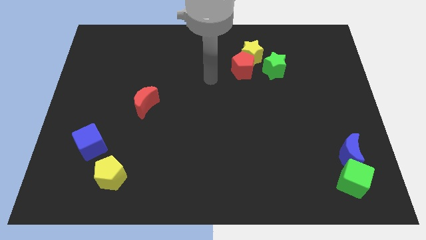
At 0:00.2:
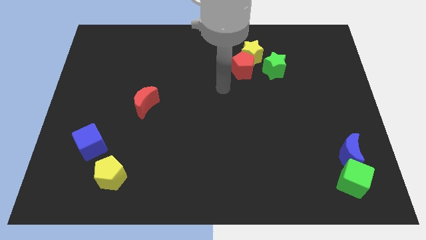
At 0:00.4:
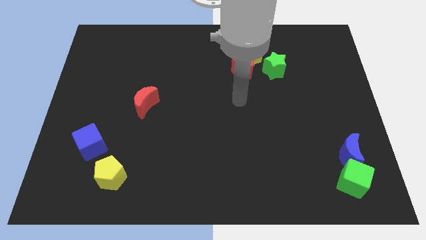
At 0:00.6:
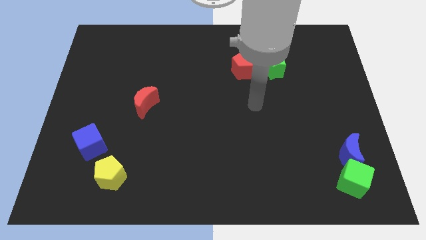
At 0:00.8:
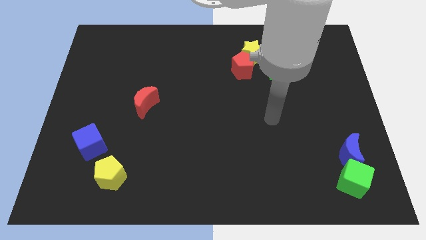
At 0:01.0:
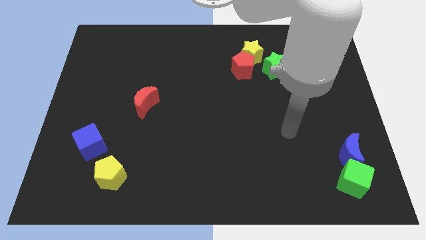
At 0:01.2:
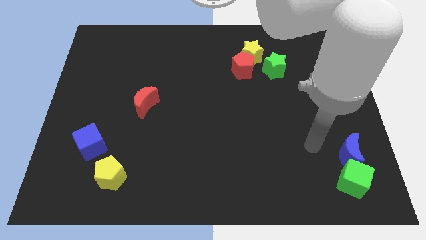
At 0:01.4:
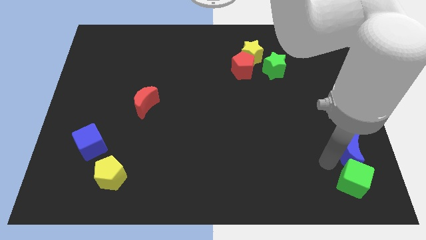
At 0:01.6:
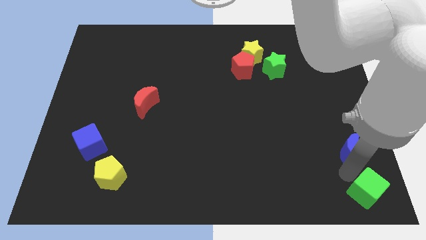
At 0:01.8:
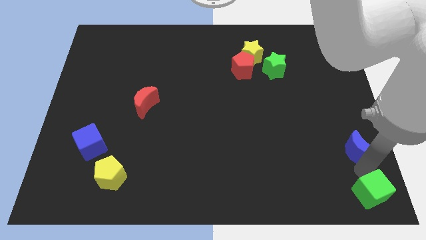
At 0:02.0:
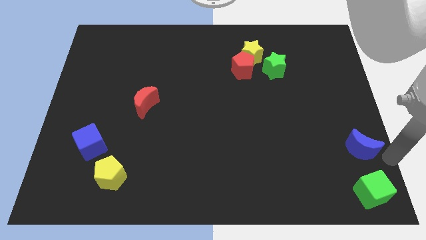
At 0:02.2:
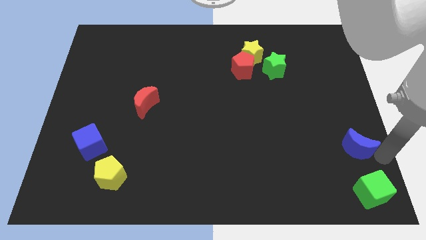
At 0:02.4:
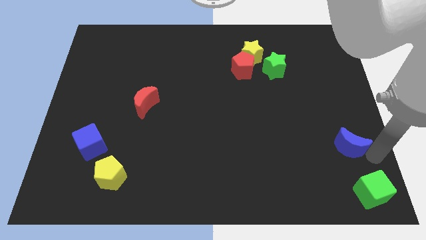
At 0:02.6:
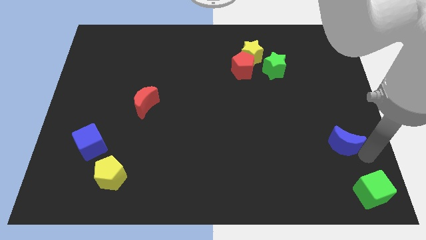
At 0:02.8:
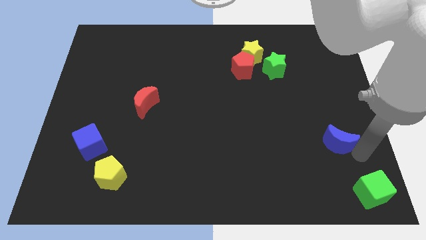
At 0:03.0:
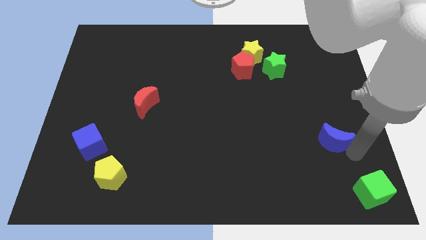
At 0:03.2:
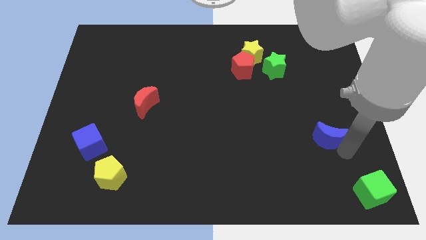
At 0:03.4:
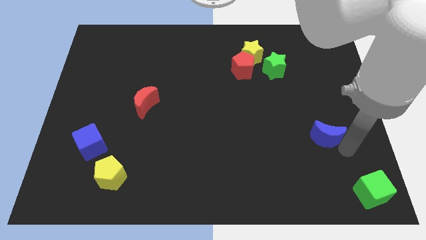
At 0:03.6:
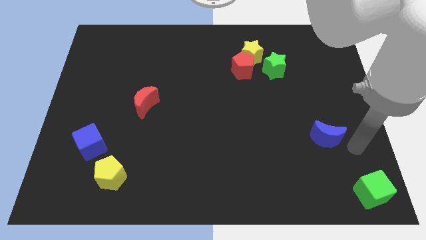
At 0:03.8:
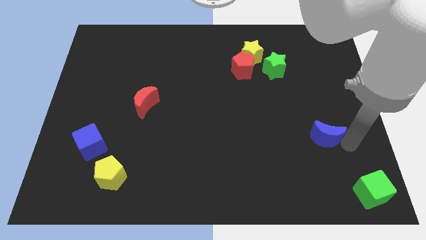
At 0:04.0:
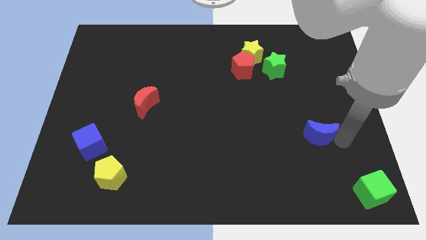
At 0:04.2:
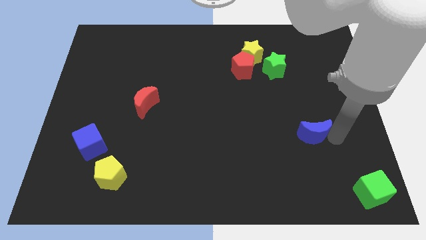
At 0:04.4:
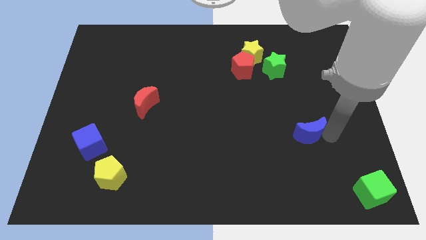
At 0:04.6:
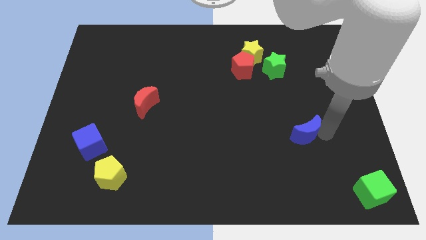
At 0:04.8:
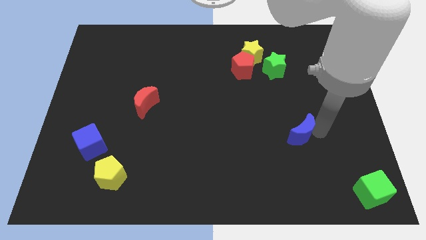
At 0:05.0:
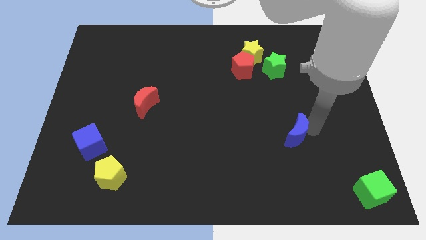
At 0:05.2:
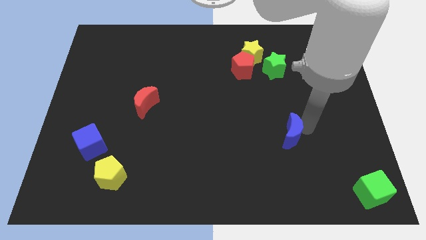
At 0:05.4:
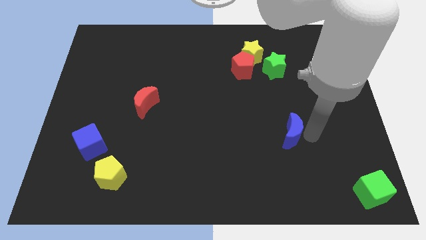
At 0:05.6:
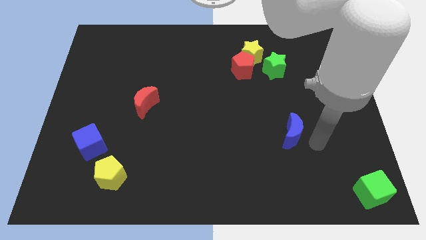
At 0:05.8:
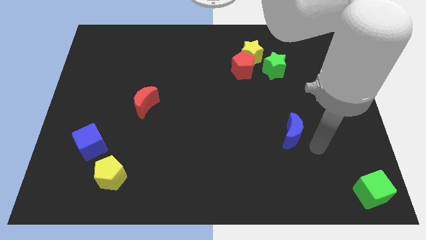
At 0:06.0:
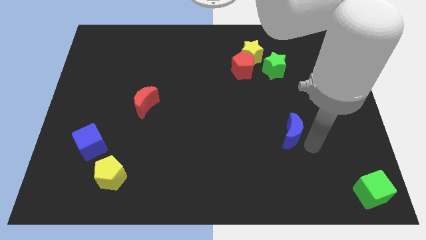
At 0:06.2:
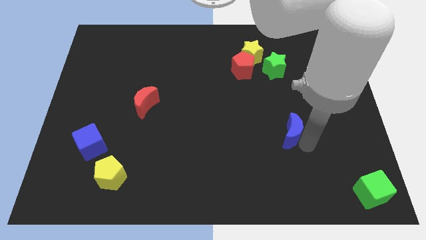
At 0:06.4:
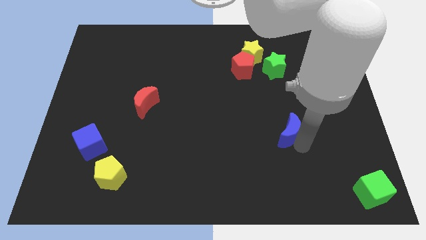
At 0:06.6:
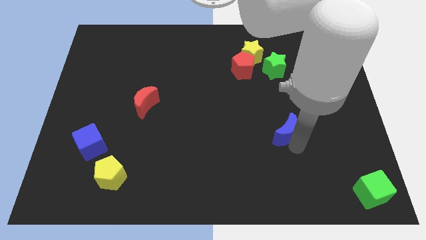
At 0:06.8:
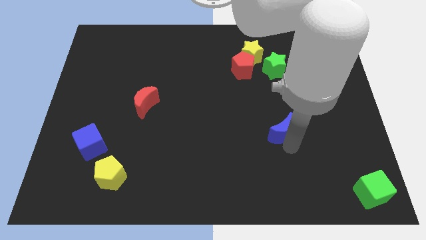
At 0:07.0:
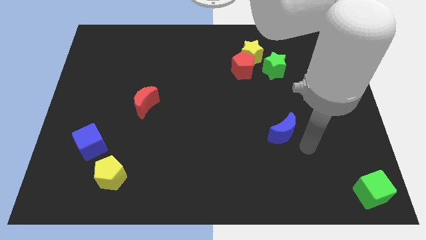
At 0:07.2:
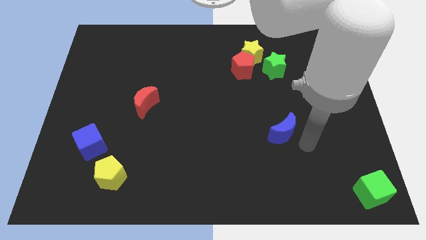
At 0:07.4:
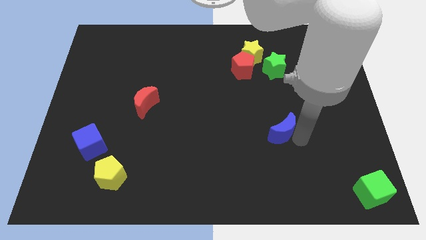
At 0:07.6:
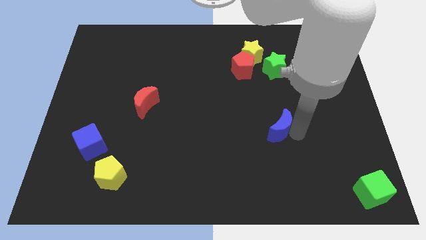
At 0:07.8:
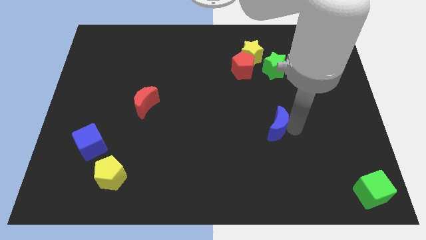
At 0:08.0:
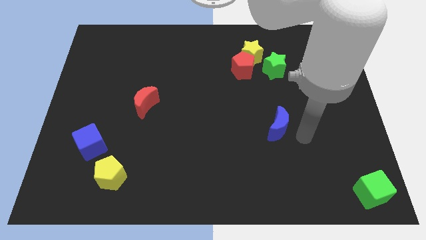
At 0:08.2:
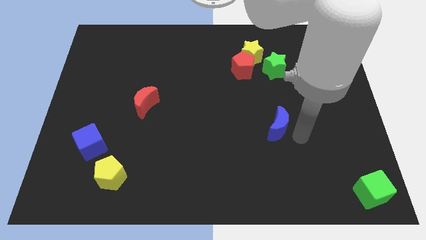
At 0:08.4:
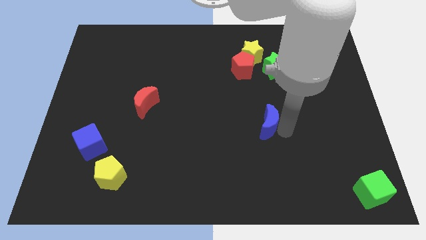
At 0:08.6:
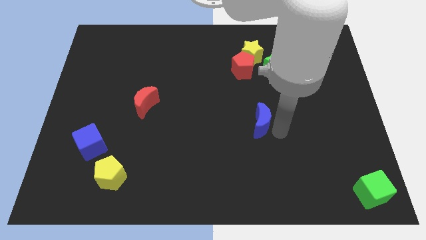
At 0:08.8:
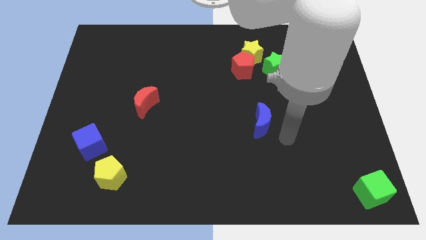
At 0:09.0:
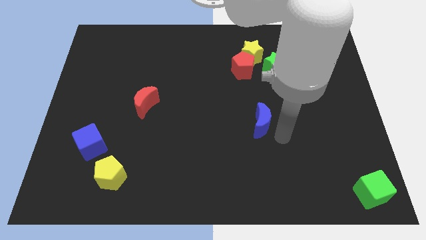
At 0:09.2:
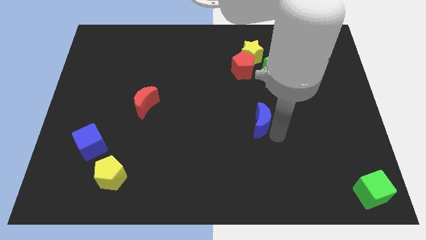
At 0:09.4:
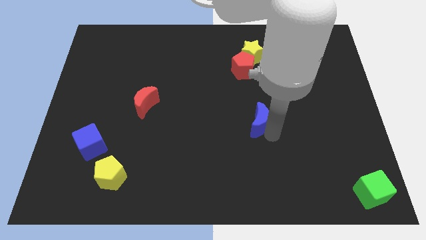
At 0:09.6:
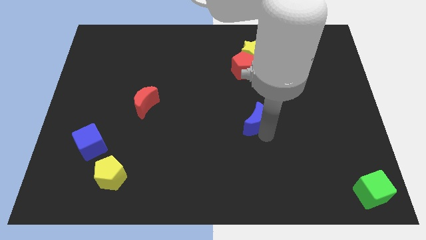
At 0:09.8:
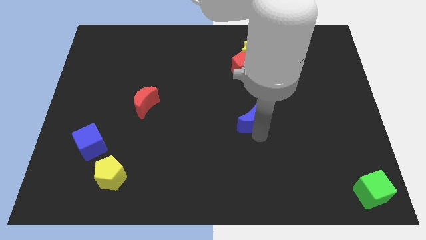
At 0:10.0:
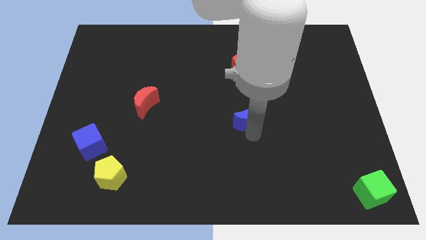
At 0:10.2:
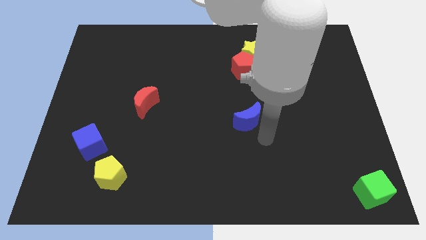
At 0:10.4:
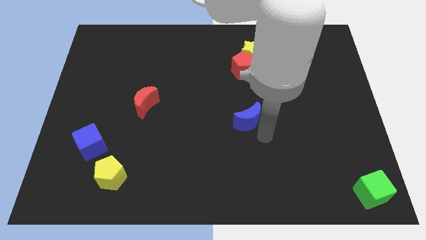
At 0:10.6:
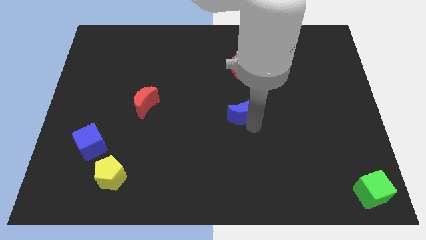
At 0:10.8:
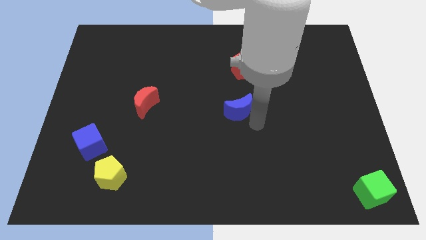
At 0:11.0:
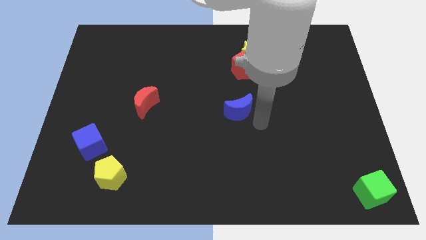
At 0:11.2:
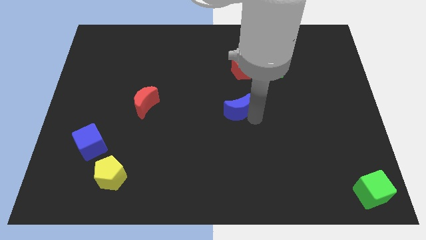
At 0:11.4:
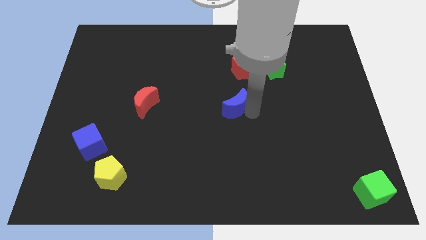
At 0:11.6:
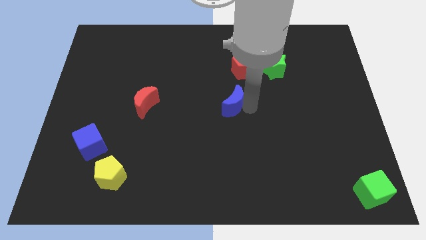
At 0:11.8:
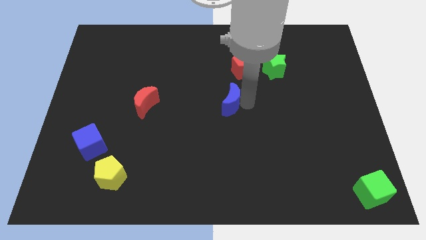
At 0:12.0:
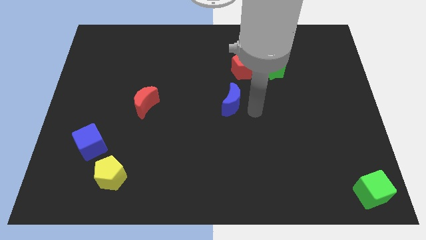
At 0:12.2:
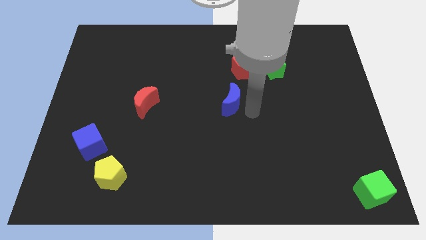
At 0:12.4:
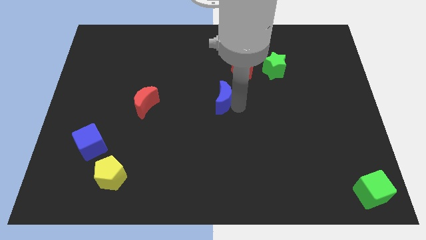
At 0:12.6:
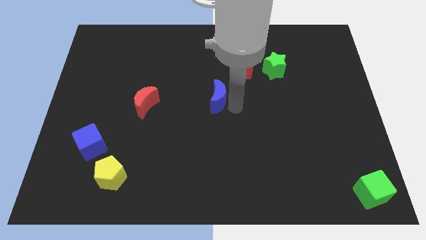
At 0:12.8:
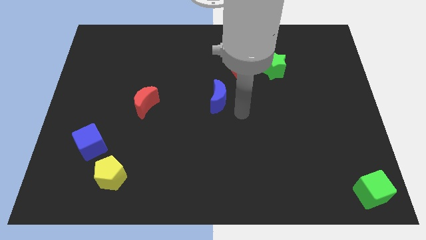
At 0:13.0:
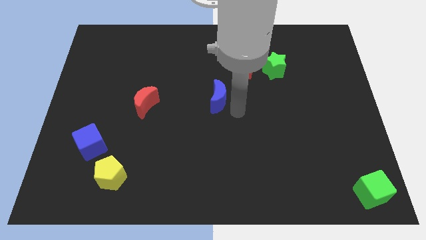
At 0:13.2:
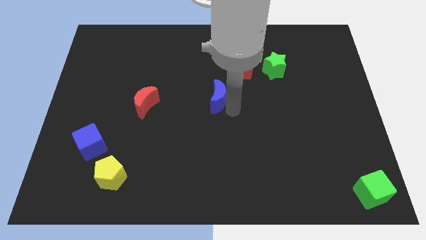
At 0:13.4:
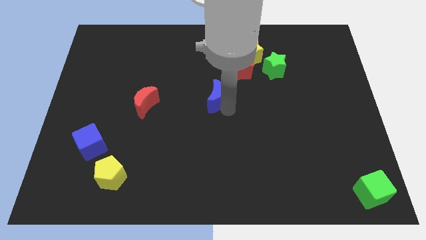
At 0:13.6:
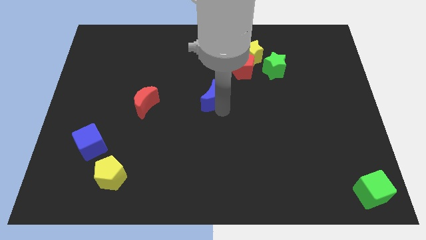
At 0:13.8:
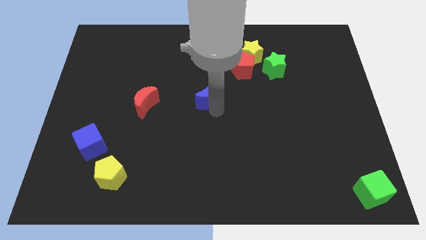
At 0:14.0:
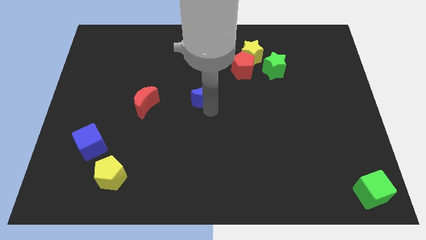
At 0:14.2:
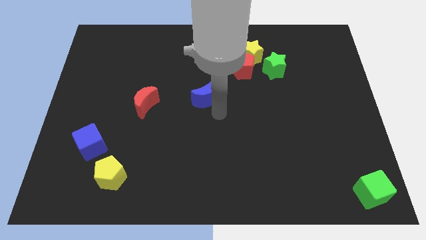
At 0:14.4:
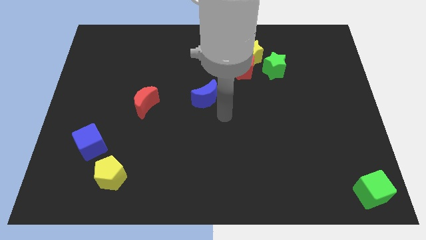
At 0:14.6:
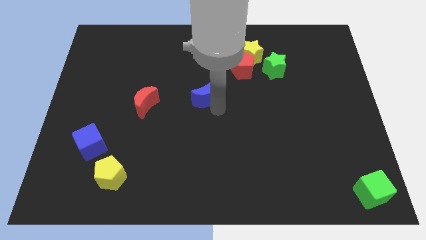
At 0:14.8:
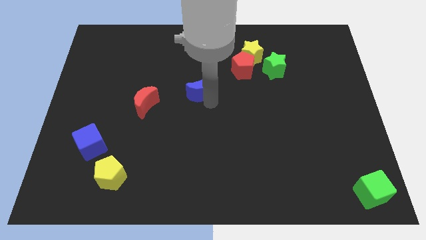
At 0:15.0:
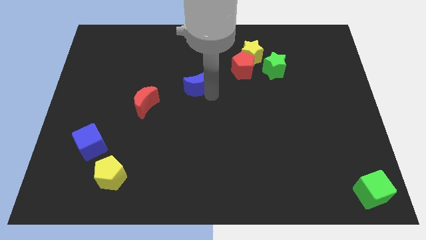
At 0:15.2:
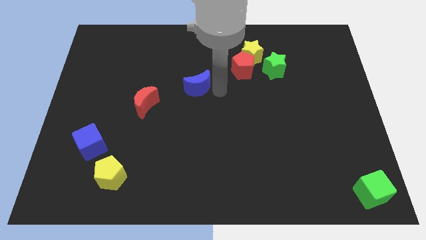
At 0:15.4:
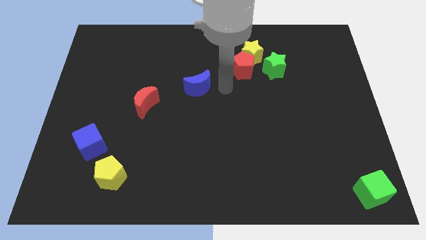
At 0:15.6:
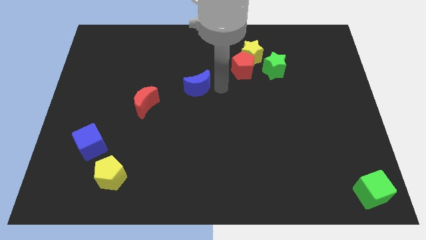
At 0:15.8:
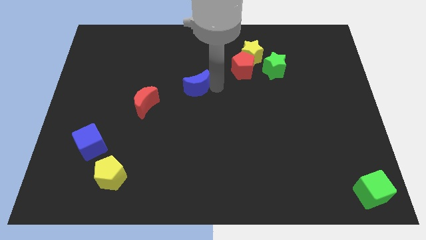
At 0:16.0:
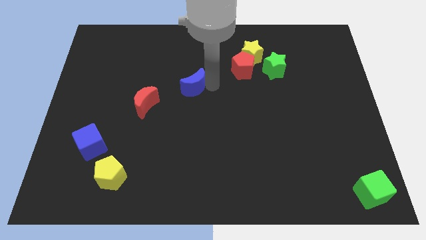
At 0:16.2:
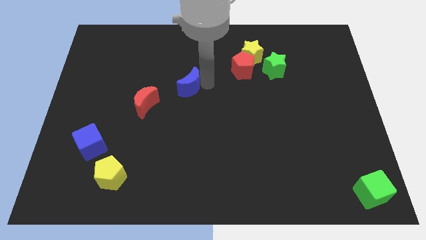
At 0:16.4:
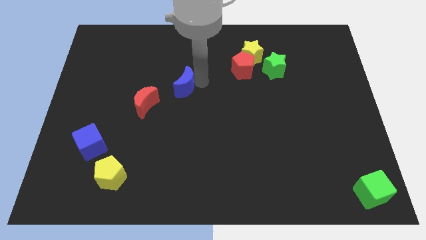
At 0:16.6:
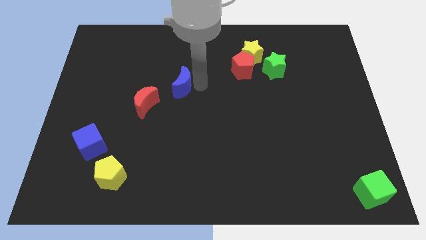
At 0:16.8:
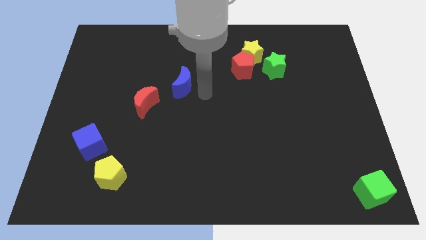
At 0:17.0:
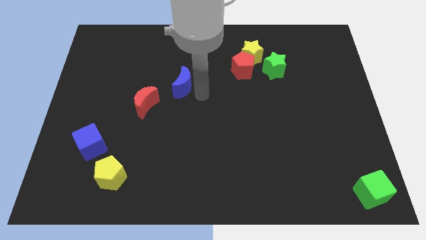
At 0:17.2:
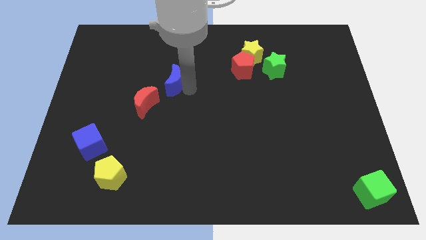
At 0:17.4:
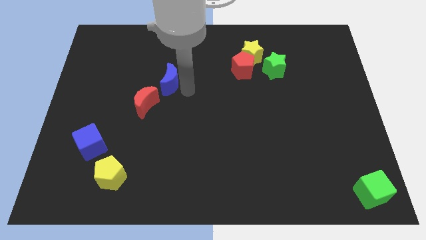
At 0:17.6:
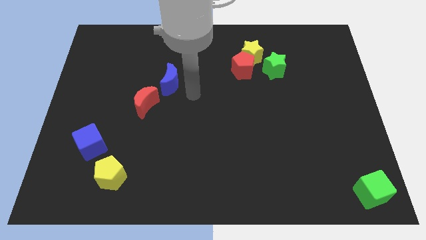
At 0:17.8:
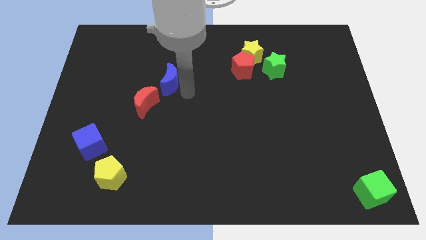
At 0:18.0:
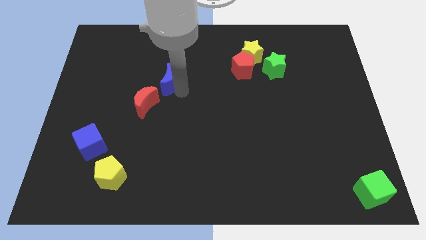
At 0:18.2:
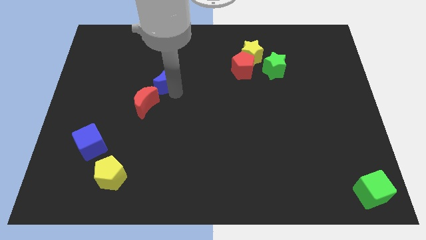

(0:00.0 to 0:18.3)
move the blue moon to the top of the red moon
